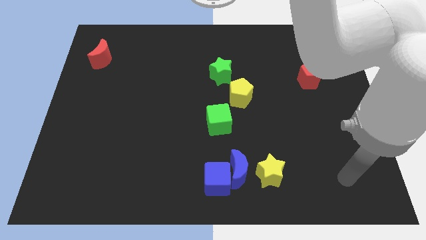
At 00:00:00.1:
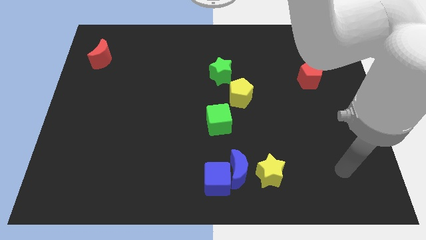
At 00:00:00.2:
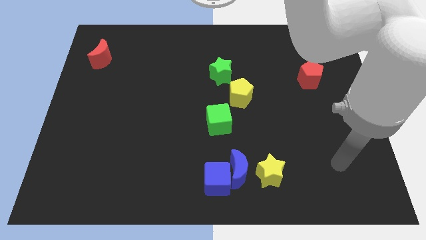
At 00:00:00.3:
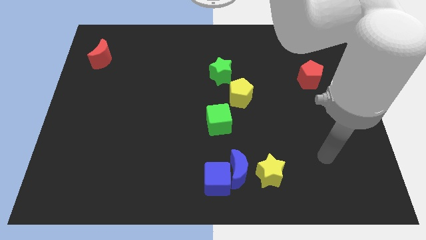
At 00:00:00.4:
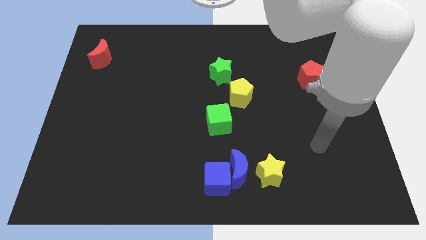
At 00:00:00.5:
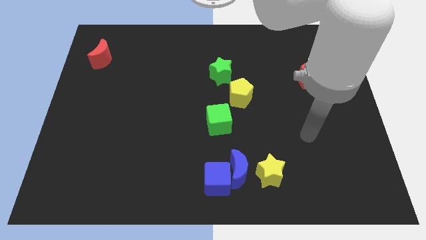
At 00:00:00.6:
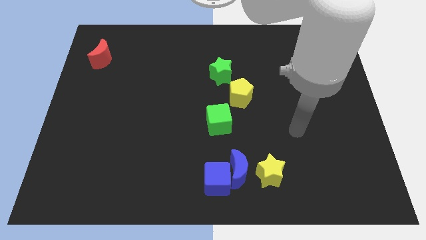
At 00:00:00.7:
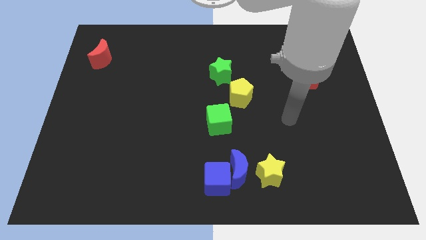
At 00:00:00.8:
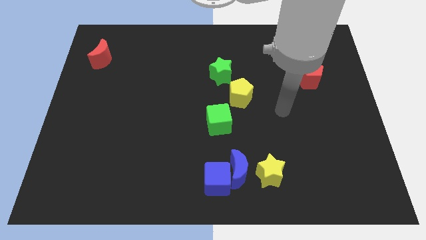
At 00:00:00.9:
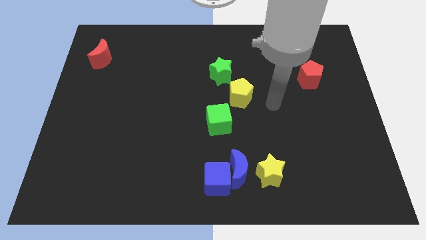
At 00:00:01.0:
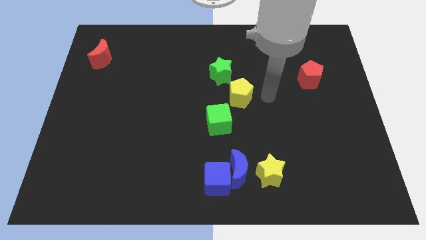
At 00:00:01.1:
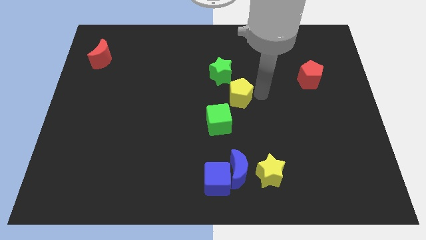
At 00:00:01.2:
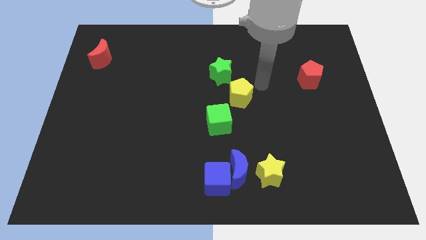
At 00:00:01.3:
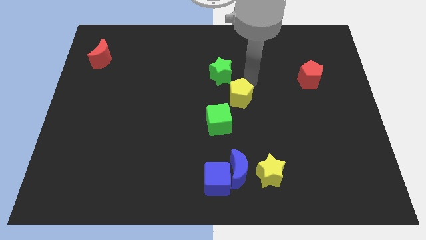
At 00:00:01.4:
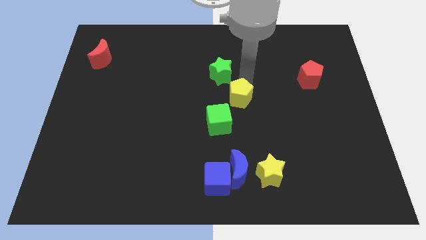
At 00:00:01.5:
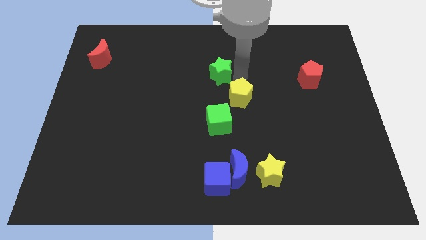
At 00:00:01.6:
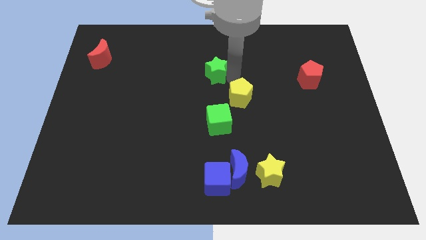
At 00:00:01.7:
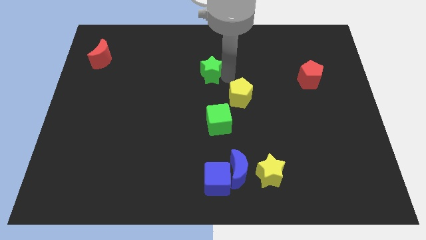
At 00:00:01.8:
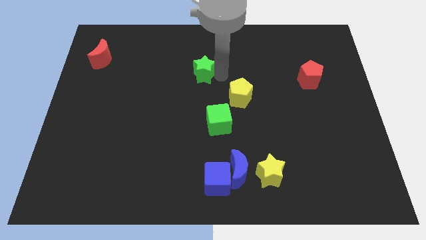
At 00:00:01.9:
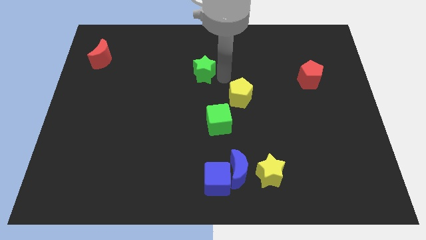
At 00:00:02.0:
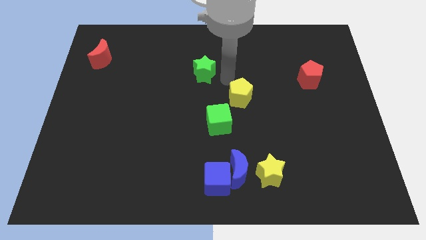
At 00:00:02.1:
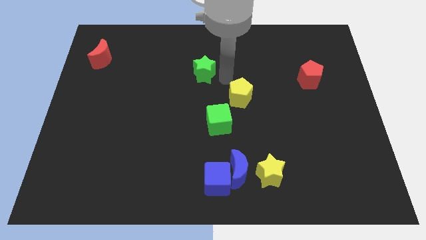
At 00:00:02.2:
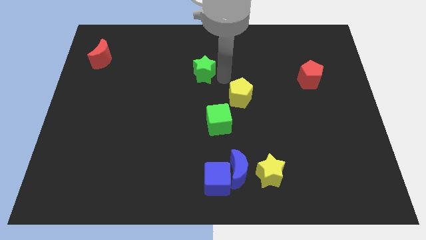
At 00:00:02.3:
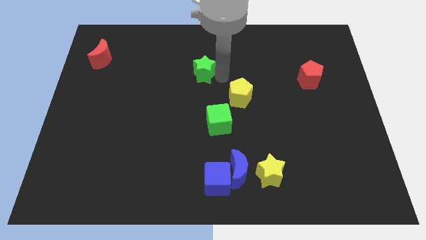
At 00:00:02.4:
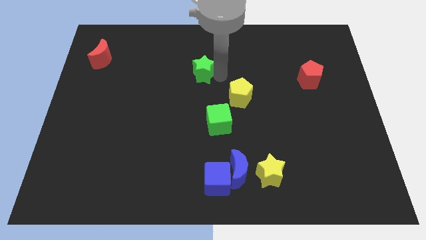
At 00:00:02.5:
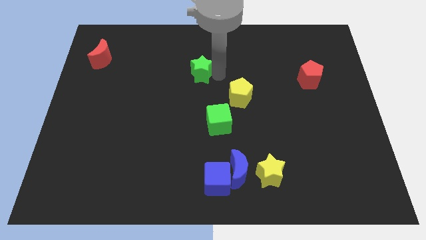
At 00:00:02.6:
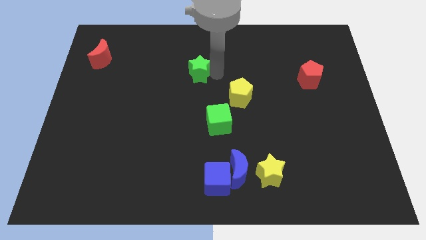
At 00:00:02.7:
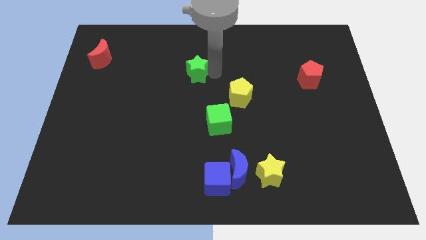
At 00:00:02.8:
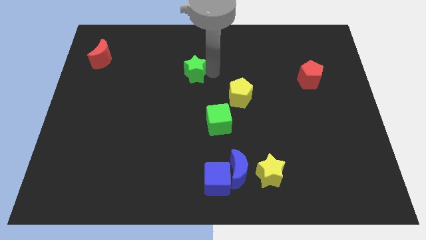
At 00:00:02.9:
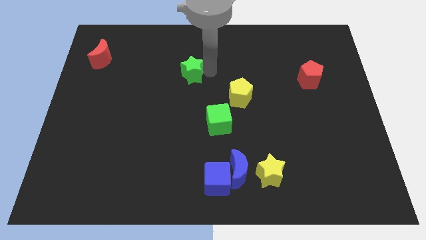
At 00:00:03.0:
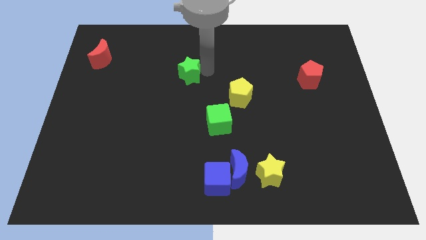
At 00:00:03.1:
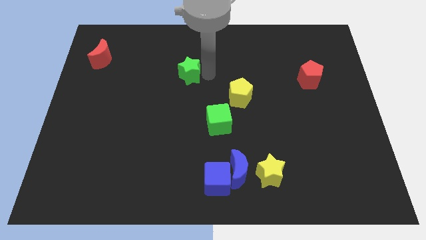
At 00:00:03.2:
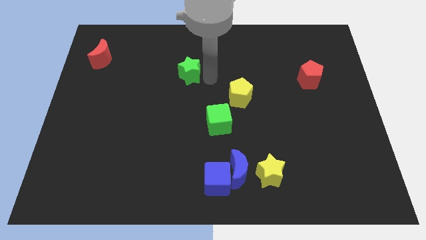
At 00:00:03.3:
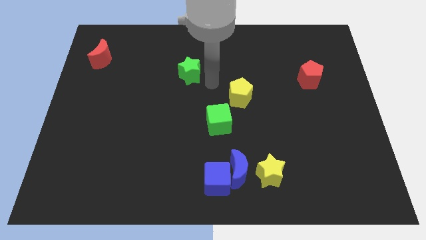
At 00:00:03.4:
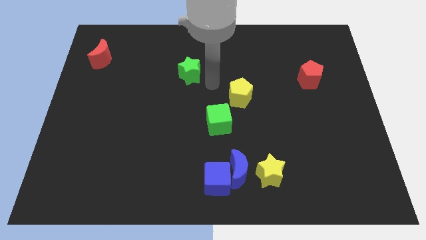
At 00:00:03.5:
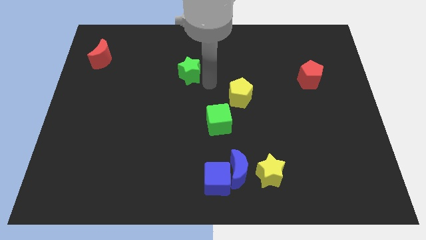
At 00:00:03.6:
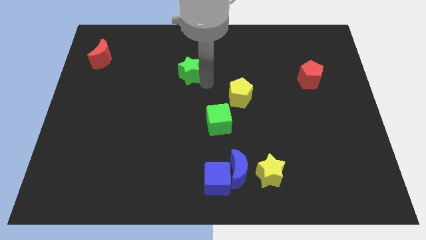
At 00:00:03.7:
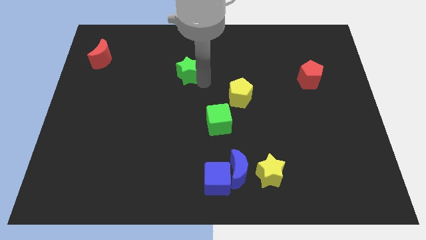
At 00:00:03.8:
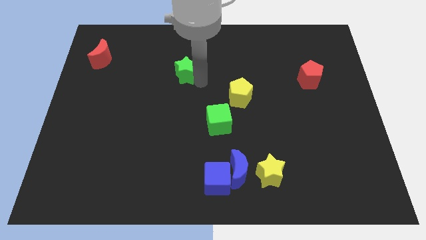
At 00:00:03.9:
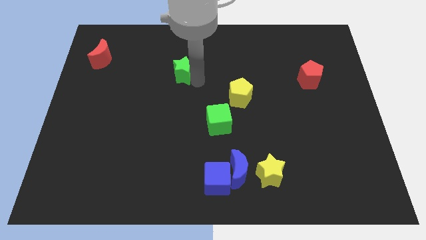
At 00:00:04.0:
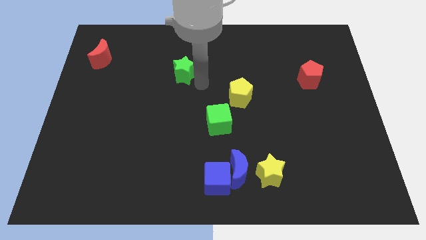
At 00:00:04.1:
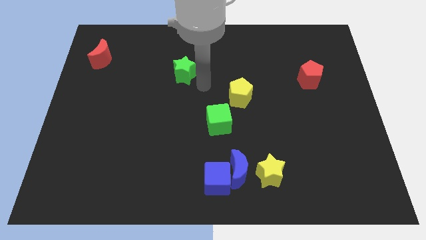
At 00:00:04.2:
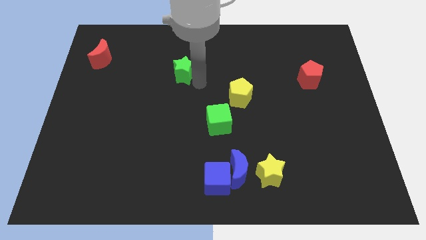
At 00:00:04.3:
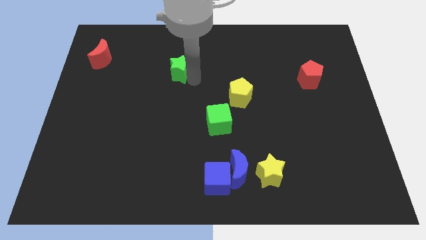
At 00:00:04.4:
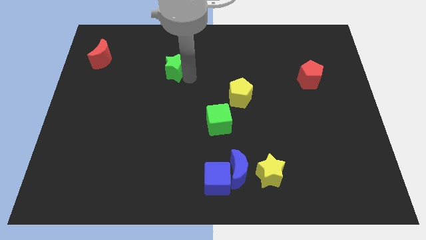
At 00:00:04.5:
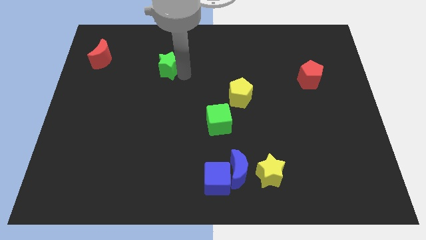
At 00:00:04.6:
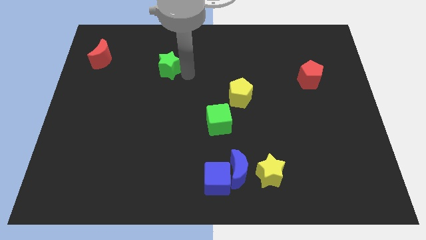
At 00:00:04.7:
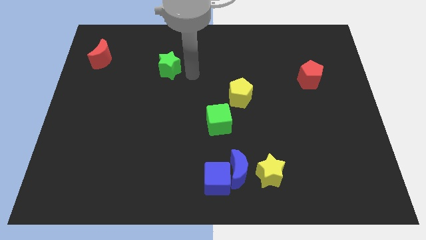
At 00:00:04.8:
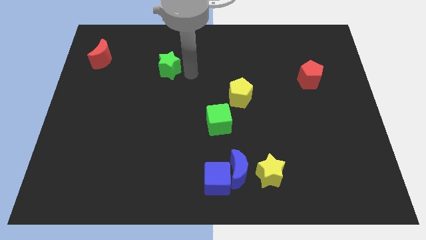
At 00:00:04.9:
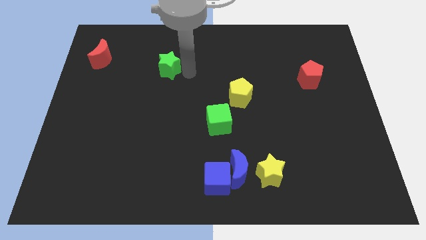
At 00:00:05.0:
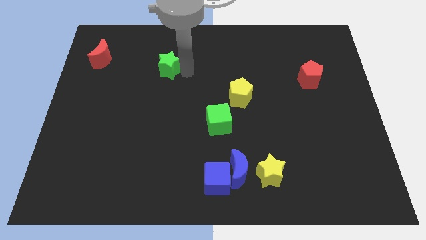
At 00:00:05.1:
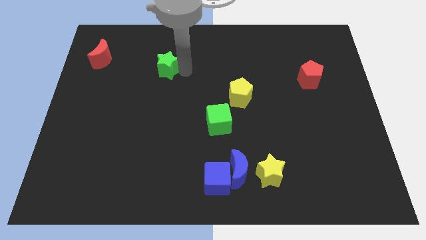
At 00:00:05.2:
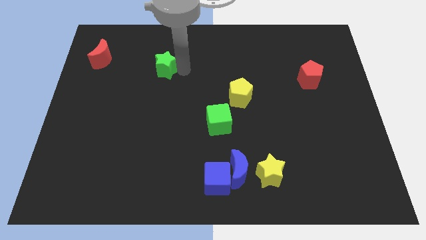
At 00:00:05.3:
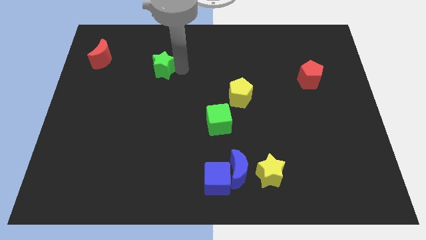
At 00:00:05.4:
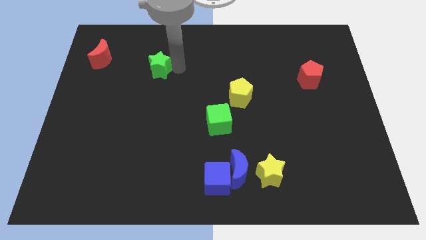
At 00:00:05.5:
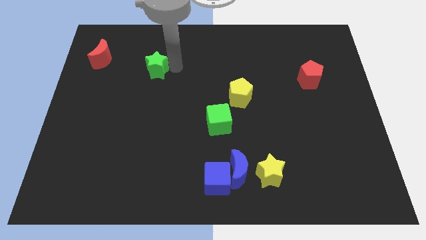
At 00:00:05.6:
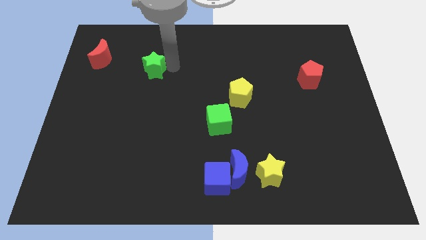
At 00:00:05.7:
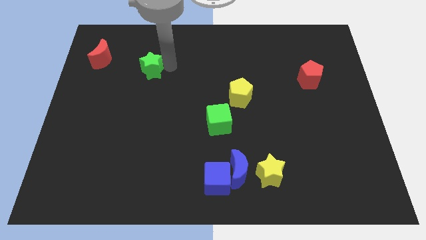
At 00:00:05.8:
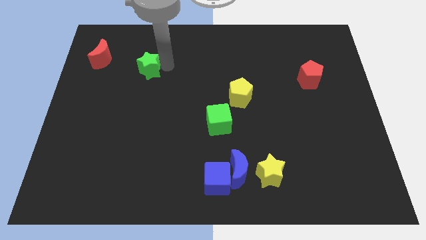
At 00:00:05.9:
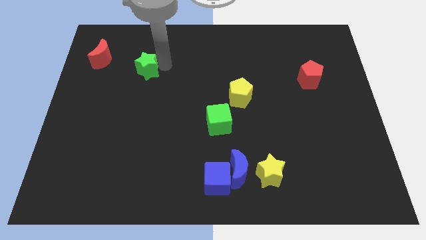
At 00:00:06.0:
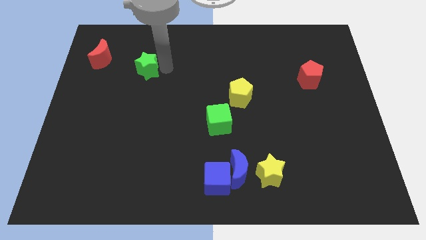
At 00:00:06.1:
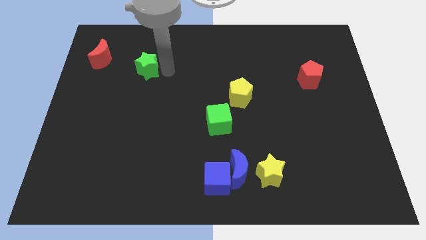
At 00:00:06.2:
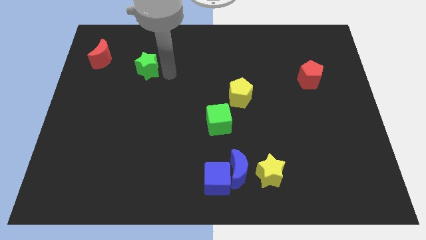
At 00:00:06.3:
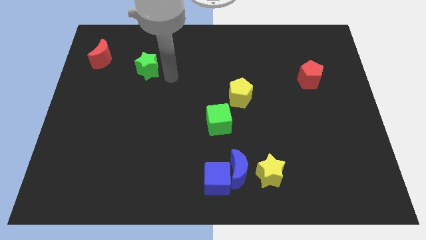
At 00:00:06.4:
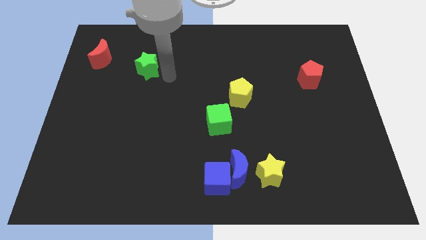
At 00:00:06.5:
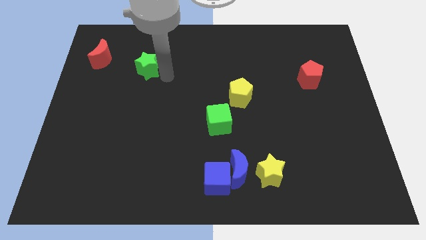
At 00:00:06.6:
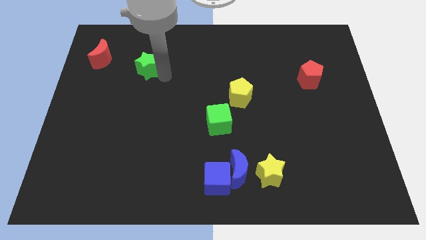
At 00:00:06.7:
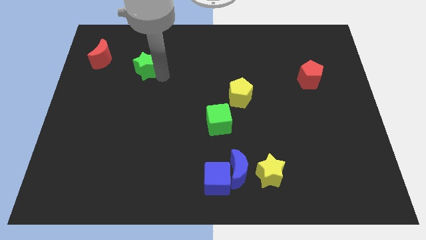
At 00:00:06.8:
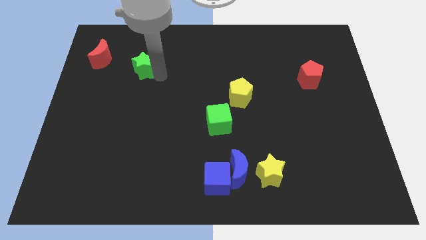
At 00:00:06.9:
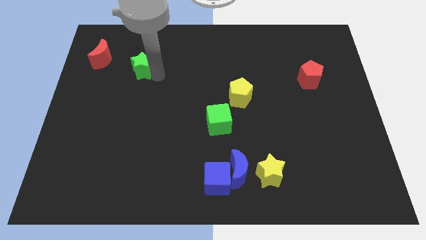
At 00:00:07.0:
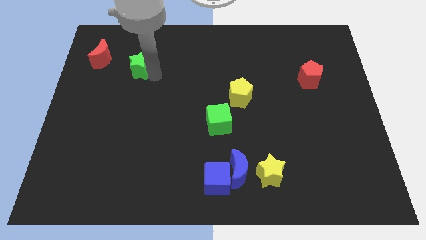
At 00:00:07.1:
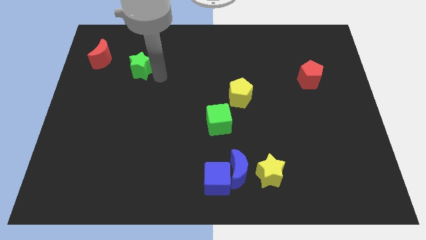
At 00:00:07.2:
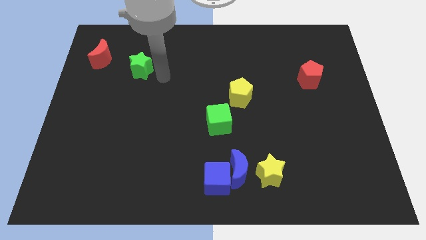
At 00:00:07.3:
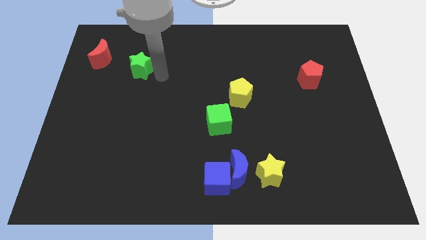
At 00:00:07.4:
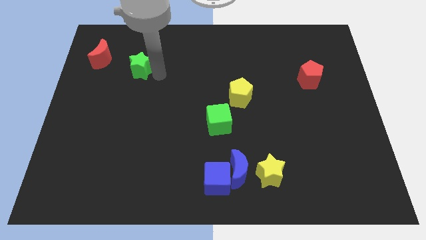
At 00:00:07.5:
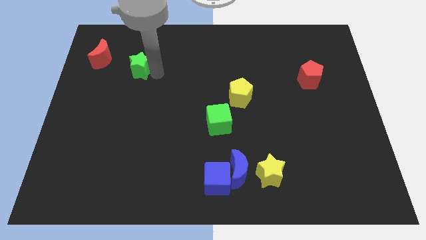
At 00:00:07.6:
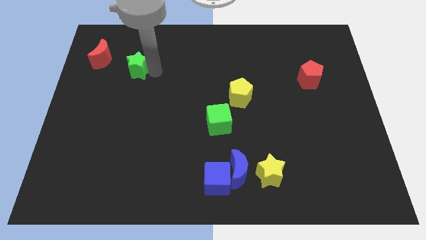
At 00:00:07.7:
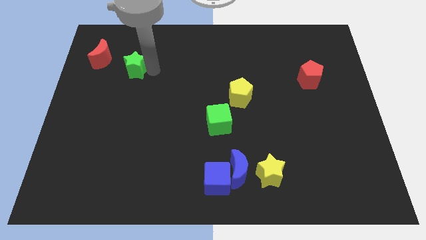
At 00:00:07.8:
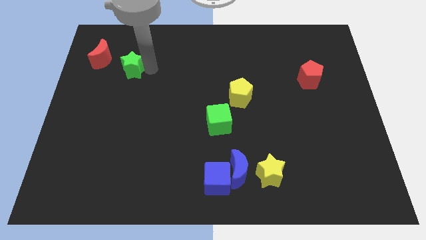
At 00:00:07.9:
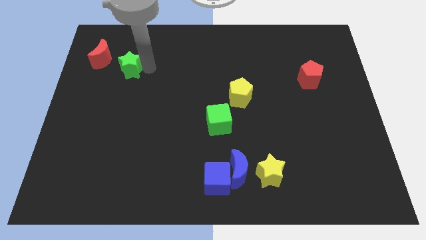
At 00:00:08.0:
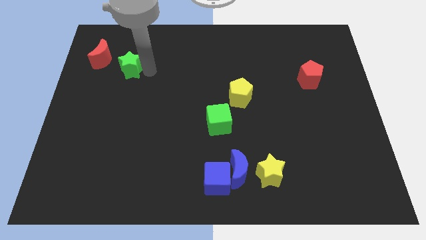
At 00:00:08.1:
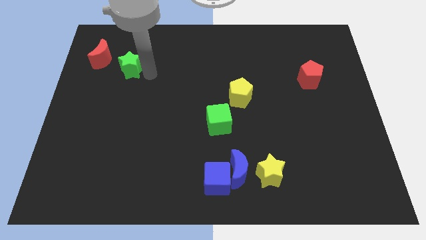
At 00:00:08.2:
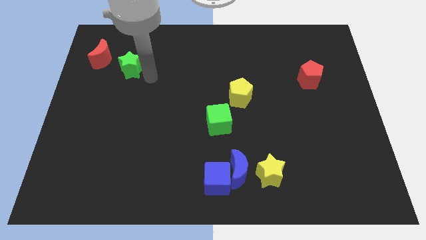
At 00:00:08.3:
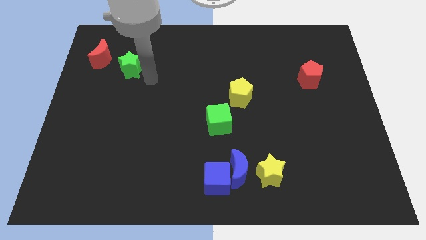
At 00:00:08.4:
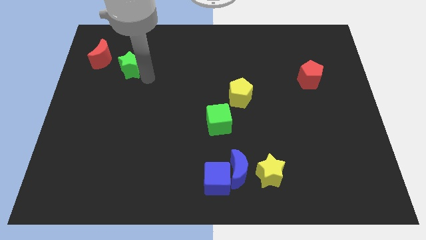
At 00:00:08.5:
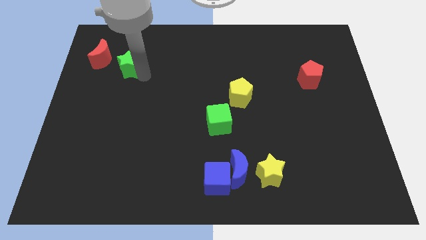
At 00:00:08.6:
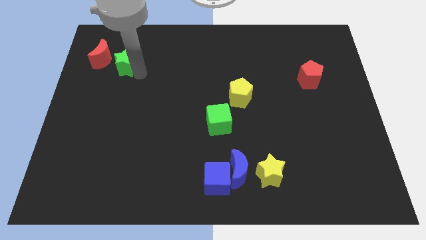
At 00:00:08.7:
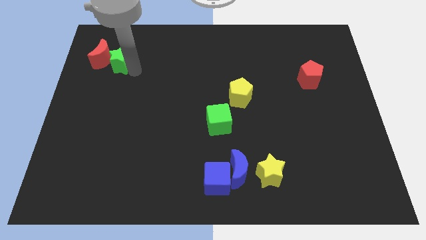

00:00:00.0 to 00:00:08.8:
slide the green star to the red moon
